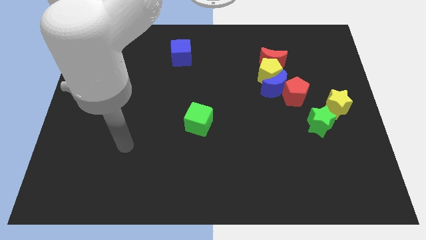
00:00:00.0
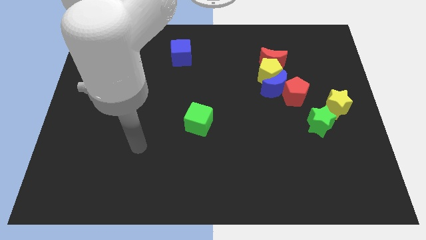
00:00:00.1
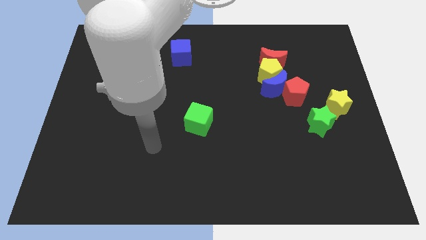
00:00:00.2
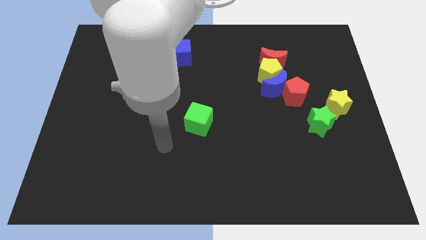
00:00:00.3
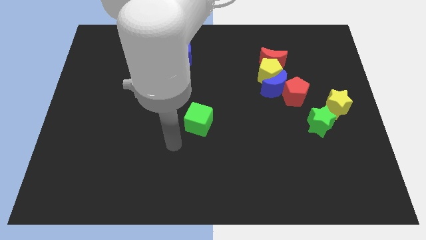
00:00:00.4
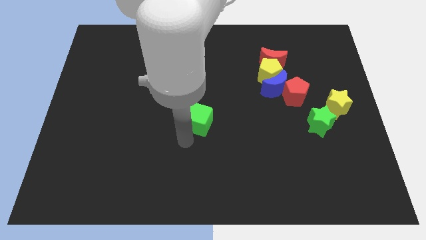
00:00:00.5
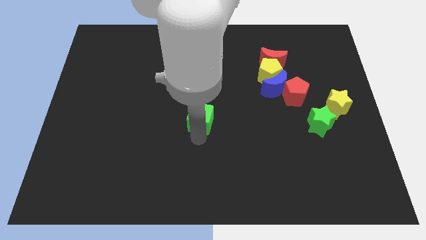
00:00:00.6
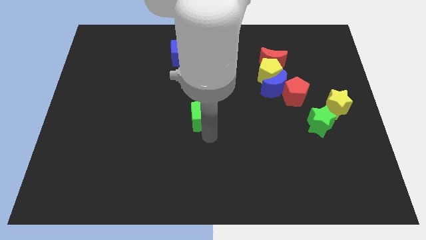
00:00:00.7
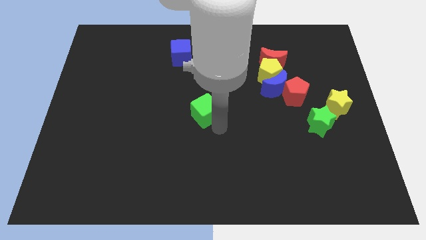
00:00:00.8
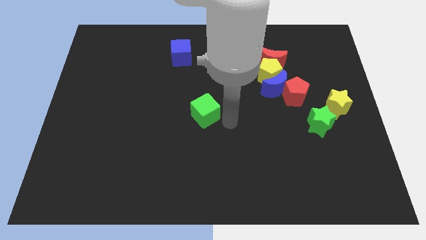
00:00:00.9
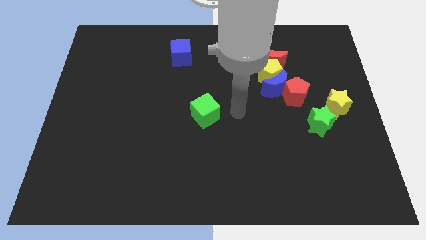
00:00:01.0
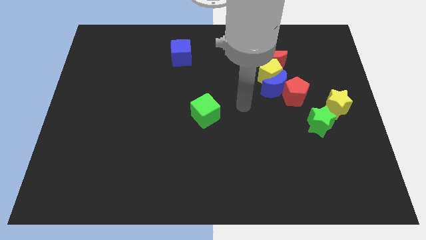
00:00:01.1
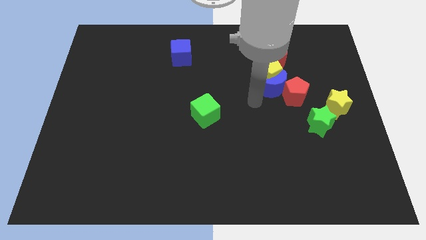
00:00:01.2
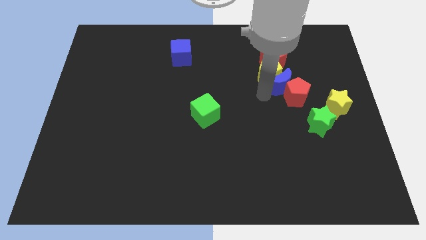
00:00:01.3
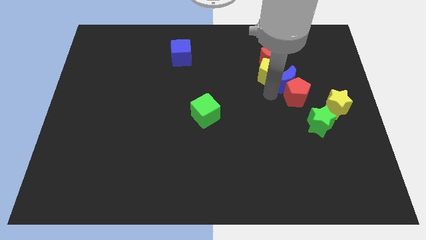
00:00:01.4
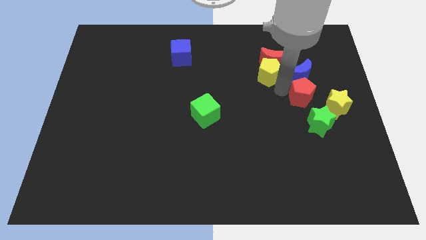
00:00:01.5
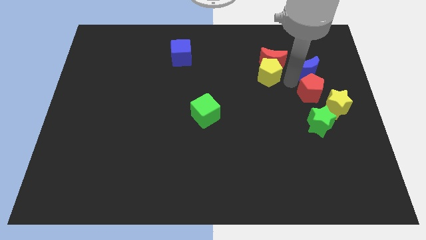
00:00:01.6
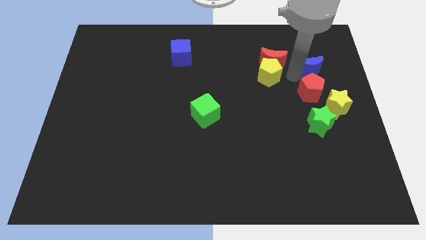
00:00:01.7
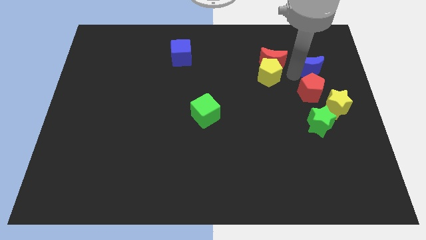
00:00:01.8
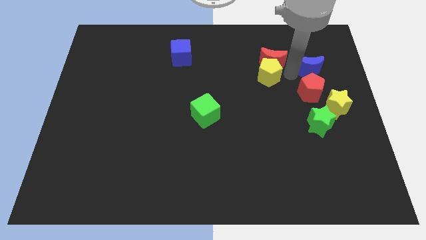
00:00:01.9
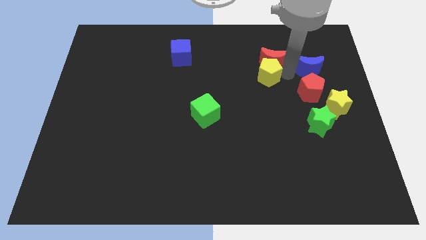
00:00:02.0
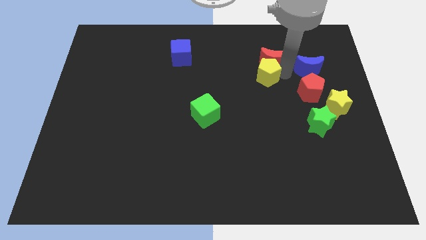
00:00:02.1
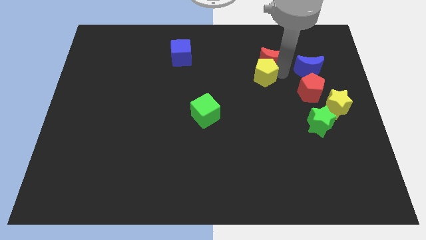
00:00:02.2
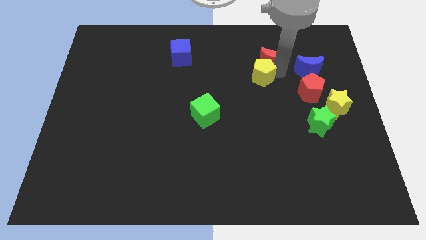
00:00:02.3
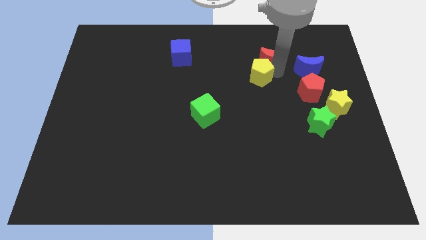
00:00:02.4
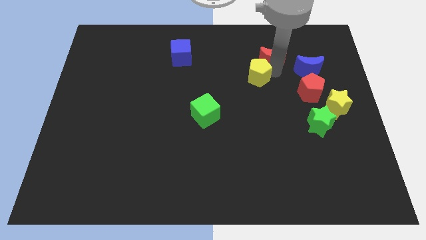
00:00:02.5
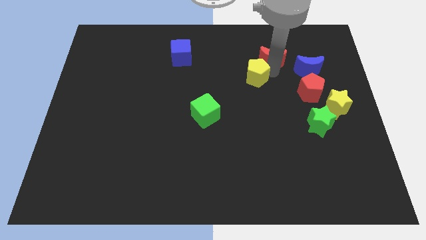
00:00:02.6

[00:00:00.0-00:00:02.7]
separate the yellow pentagon from the blue moon, red moon, and red pentagon

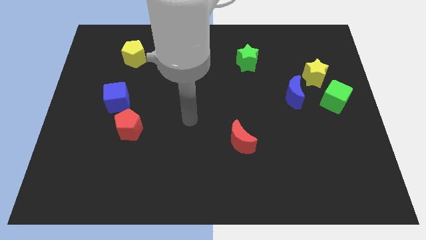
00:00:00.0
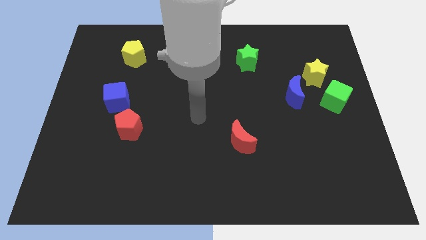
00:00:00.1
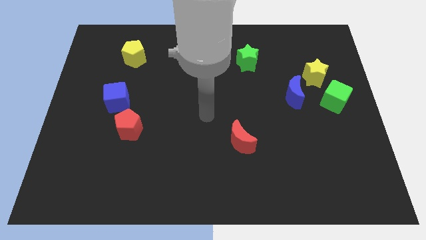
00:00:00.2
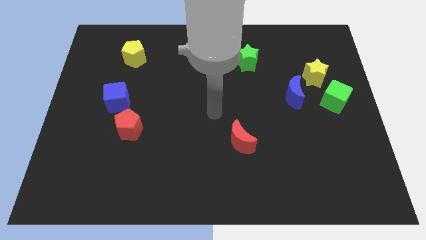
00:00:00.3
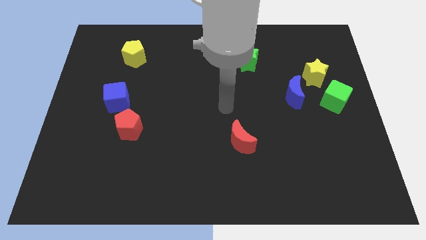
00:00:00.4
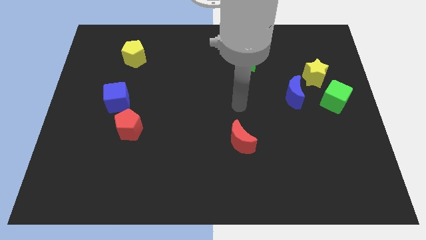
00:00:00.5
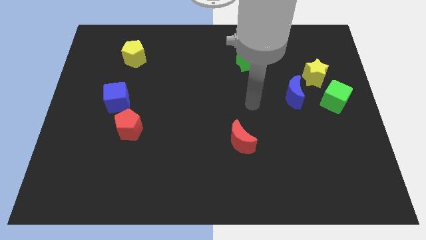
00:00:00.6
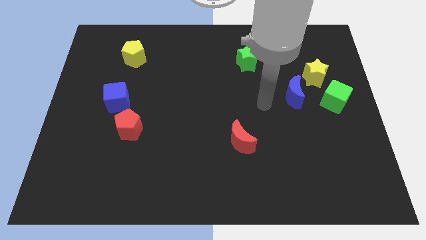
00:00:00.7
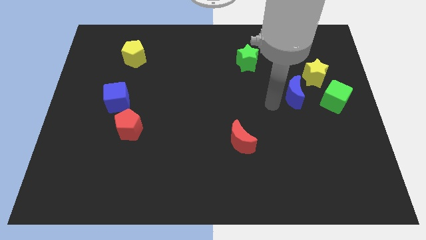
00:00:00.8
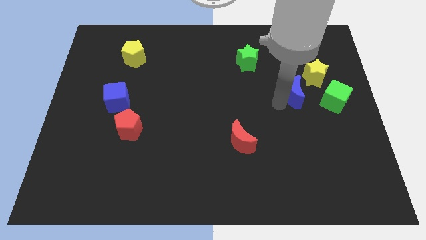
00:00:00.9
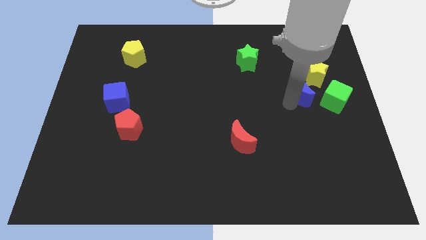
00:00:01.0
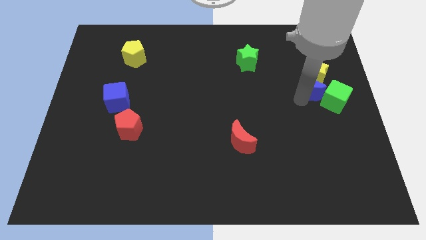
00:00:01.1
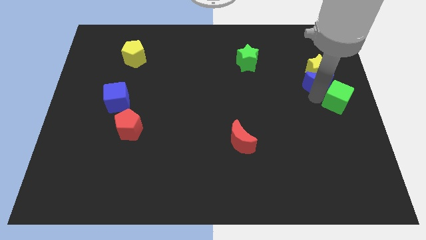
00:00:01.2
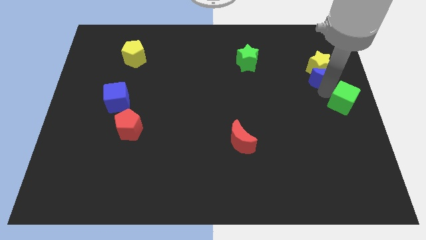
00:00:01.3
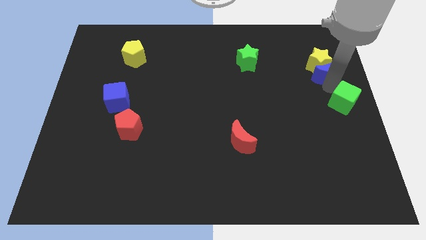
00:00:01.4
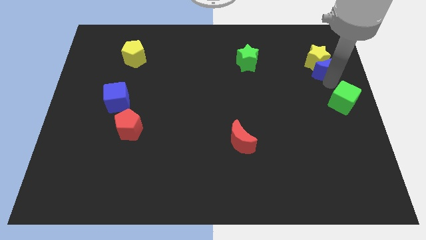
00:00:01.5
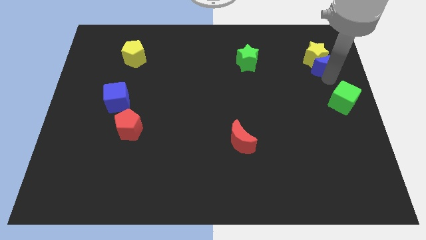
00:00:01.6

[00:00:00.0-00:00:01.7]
separate the yellow star from the green cube and blue moon

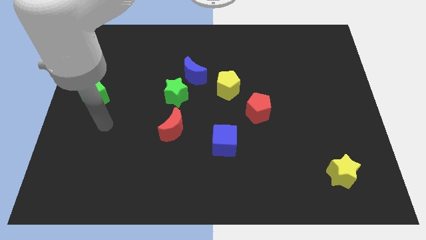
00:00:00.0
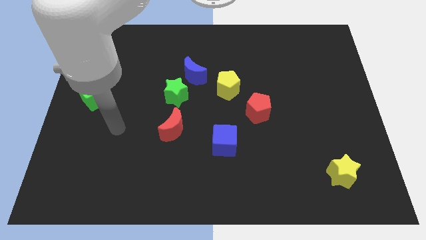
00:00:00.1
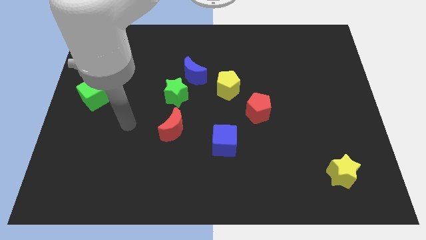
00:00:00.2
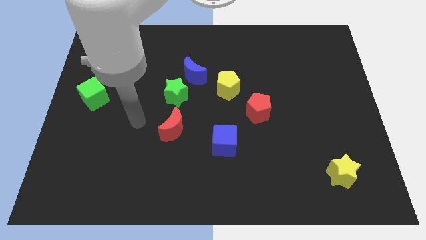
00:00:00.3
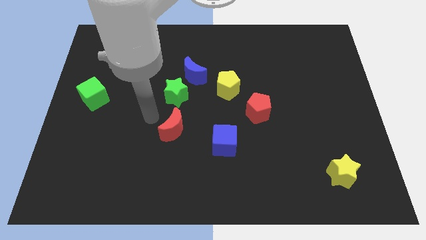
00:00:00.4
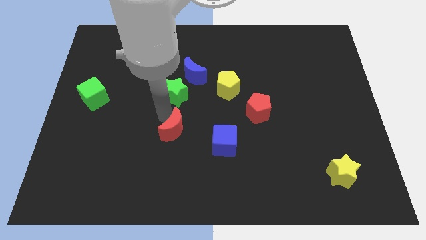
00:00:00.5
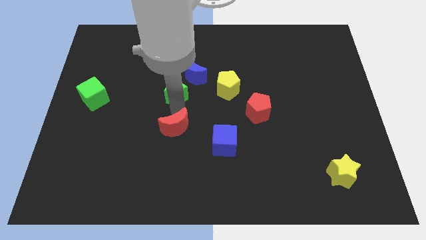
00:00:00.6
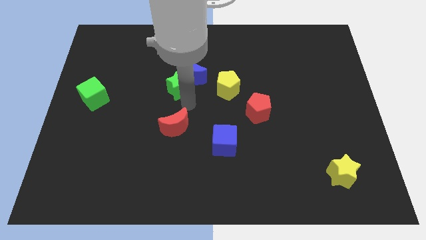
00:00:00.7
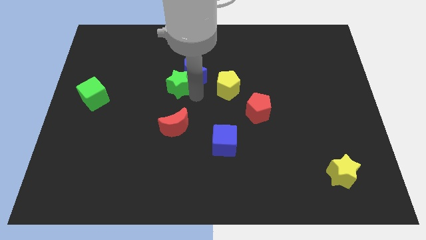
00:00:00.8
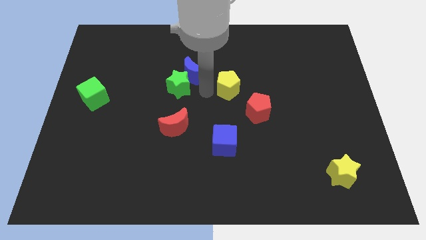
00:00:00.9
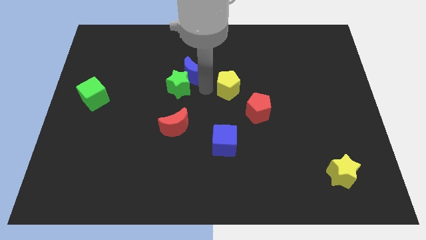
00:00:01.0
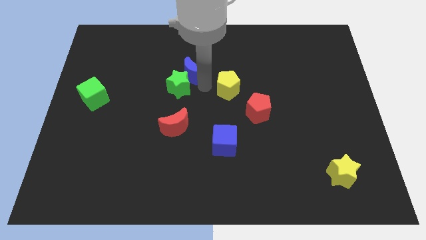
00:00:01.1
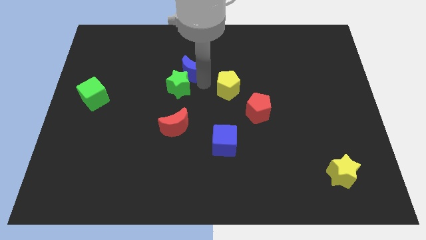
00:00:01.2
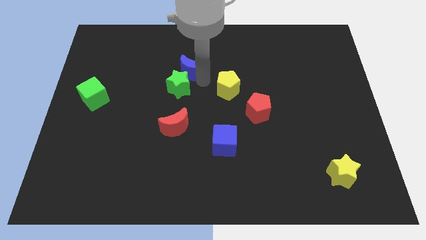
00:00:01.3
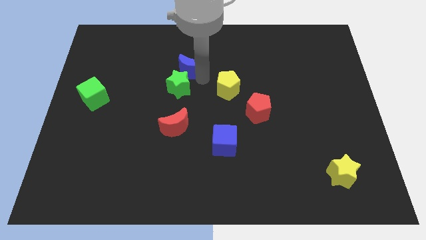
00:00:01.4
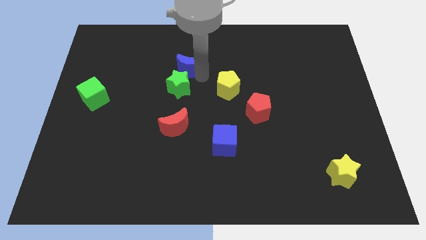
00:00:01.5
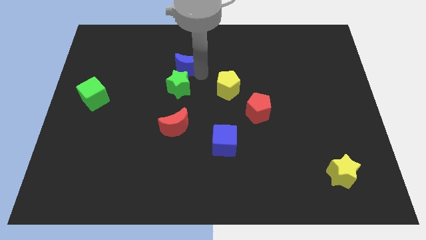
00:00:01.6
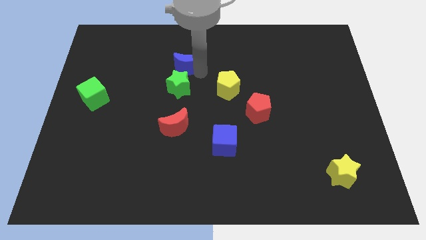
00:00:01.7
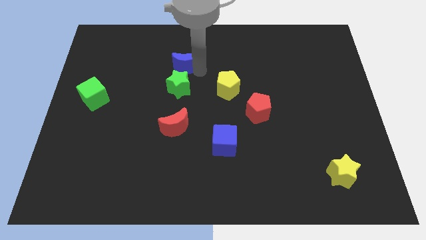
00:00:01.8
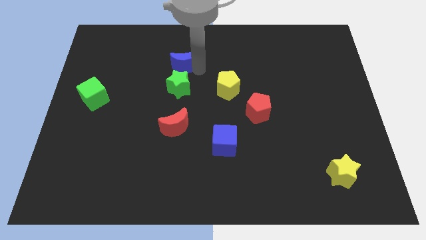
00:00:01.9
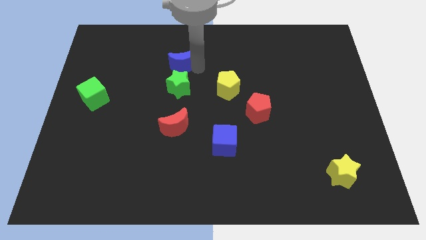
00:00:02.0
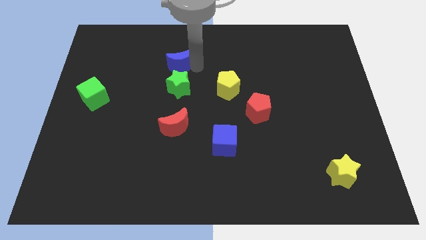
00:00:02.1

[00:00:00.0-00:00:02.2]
move the blue moon away from the green star and yellow pentagon

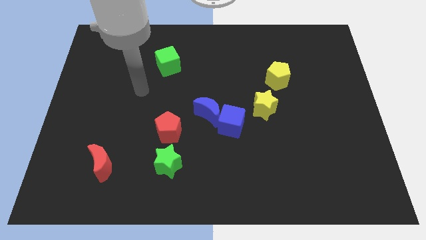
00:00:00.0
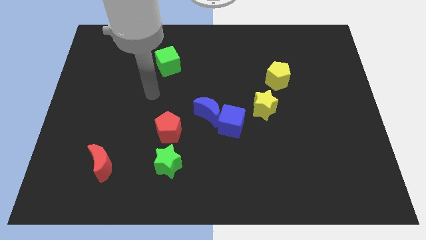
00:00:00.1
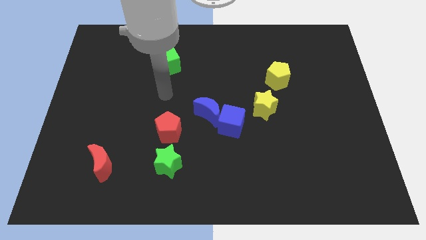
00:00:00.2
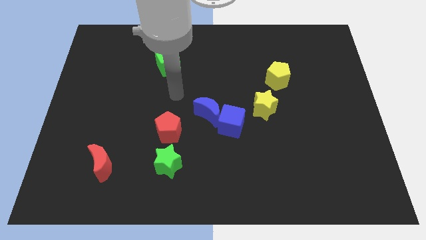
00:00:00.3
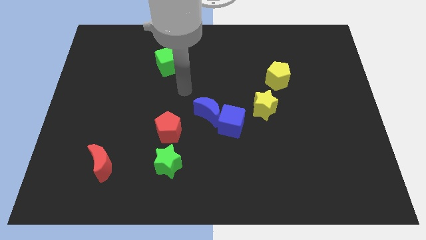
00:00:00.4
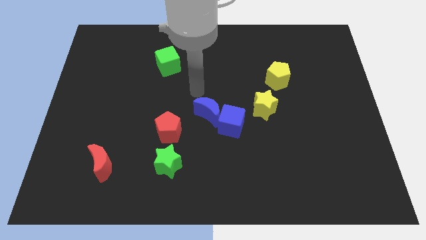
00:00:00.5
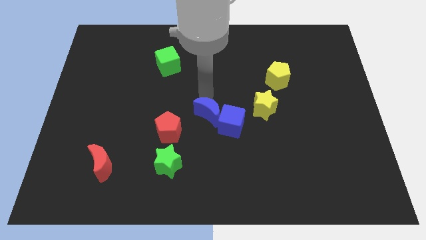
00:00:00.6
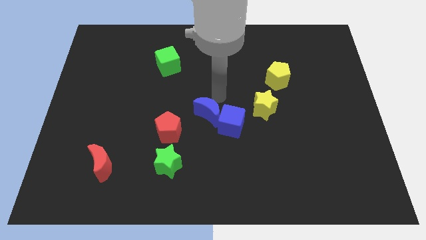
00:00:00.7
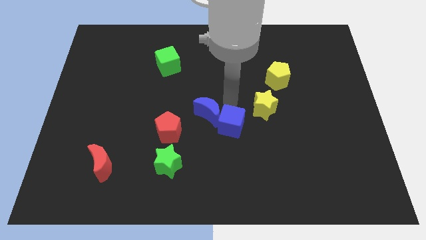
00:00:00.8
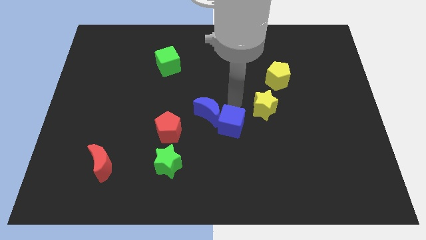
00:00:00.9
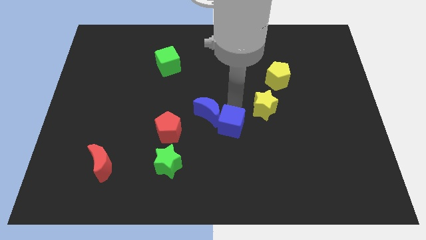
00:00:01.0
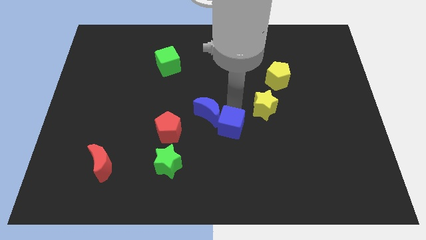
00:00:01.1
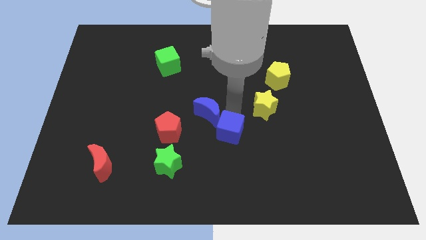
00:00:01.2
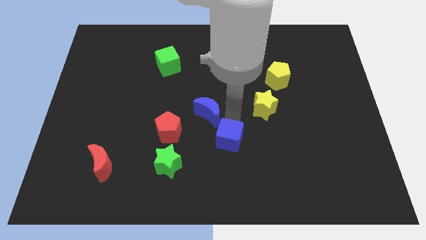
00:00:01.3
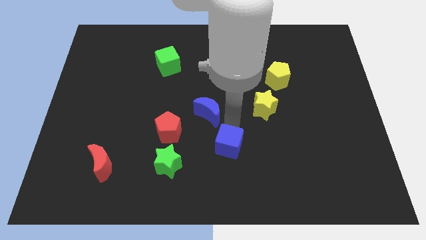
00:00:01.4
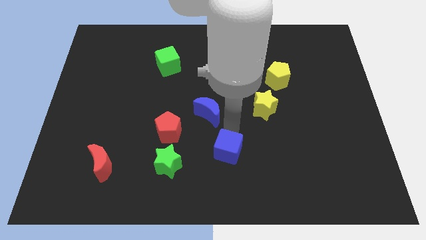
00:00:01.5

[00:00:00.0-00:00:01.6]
move the blue cube away from the blue moon and yellow star

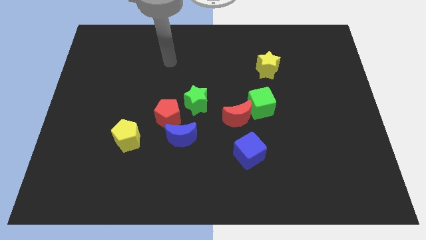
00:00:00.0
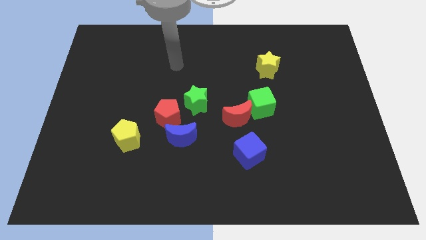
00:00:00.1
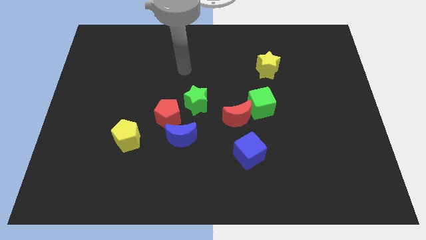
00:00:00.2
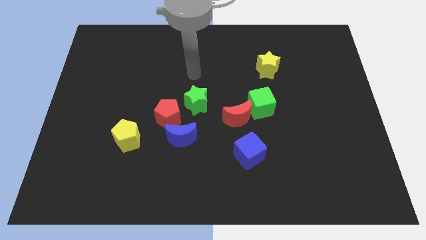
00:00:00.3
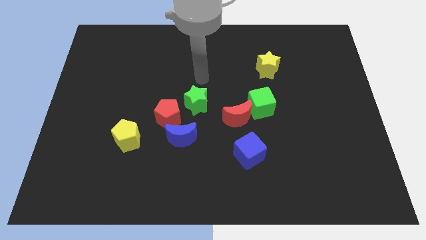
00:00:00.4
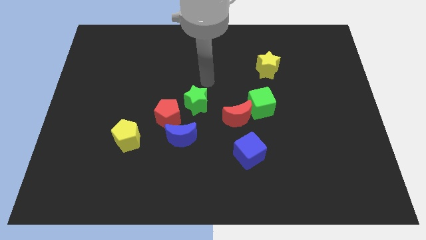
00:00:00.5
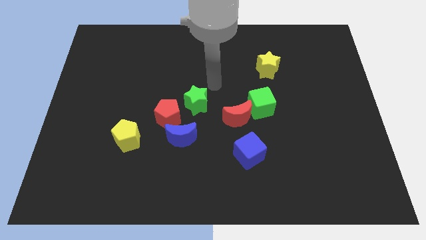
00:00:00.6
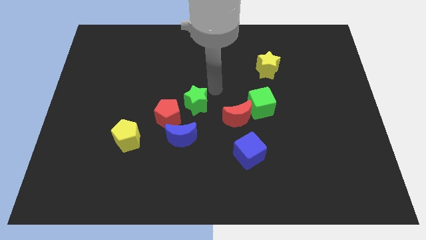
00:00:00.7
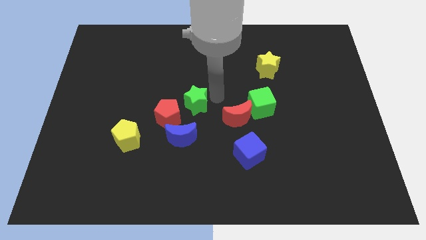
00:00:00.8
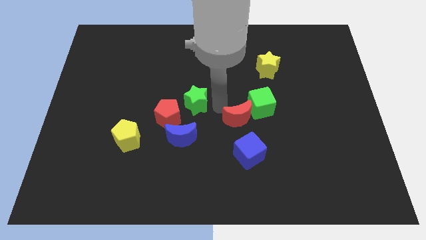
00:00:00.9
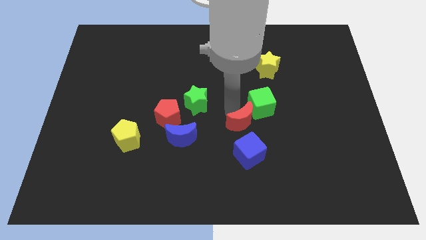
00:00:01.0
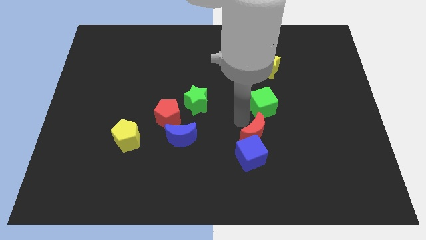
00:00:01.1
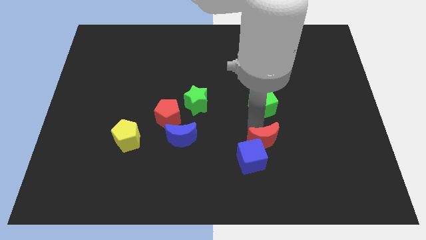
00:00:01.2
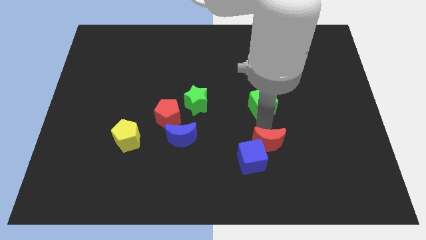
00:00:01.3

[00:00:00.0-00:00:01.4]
separate the green cube from the red moon
